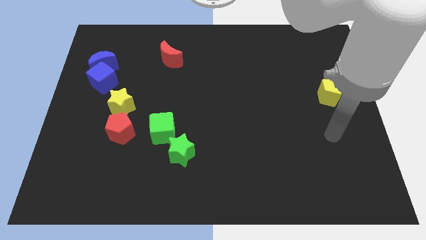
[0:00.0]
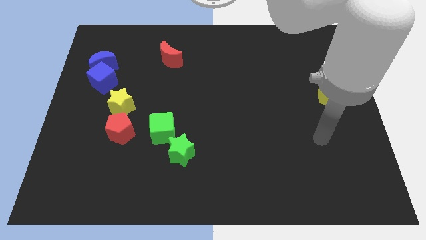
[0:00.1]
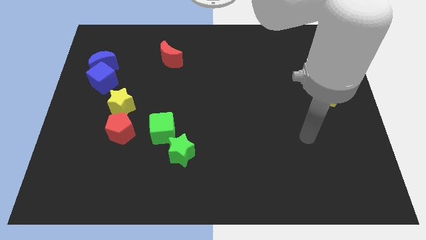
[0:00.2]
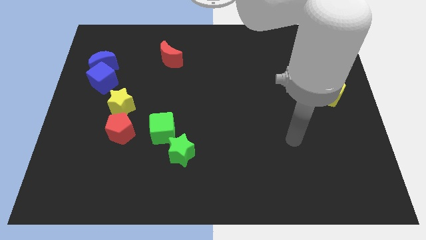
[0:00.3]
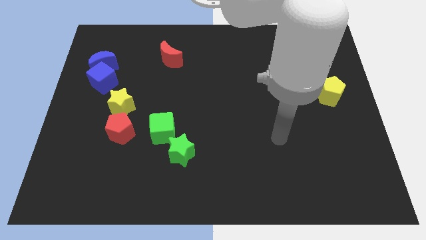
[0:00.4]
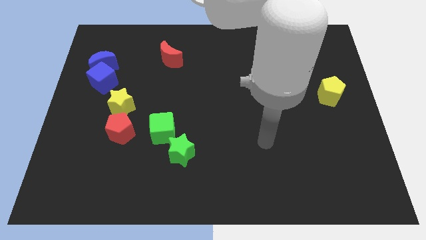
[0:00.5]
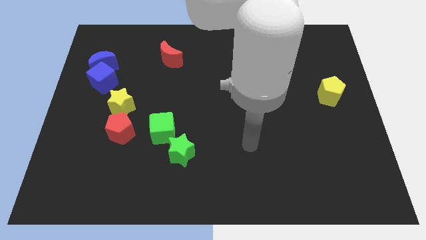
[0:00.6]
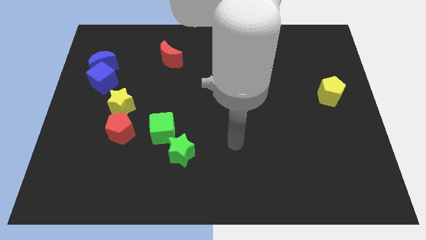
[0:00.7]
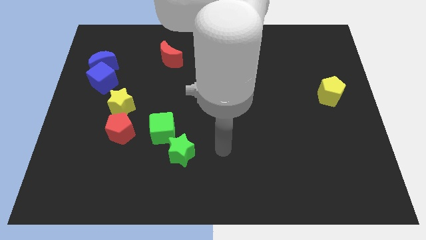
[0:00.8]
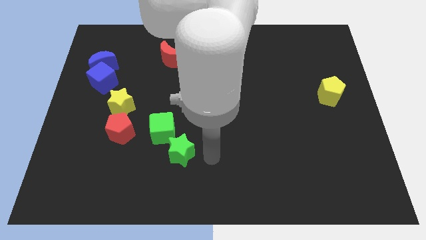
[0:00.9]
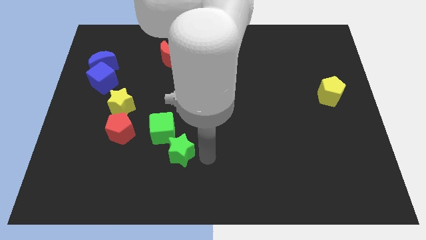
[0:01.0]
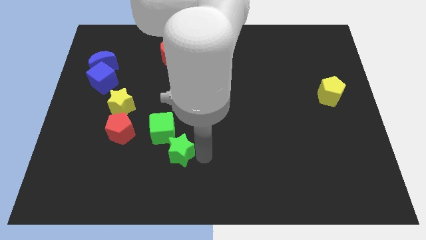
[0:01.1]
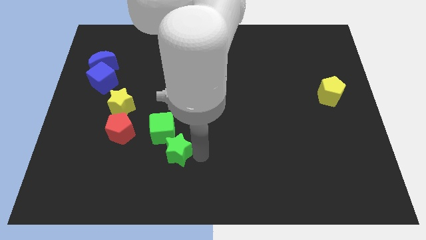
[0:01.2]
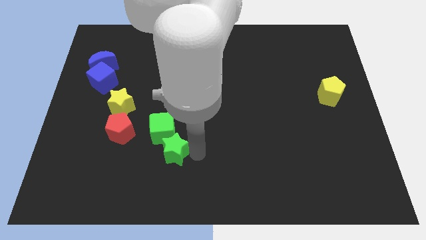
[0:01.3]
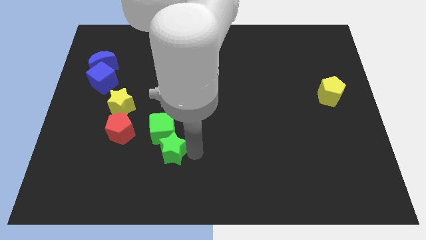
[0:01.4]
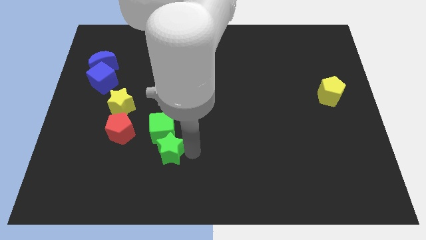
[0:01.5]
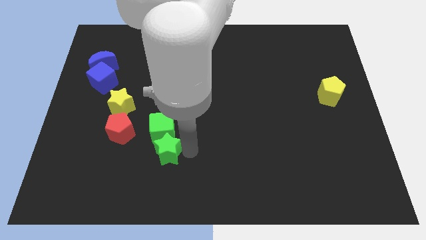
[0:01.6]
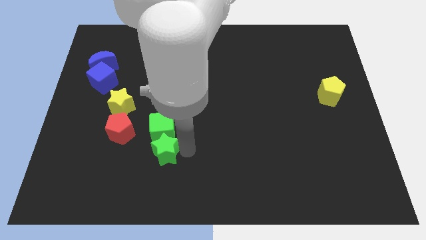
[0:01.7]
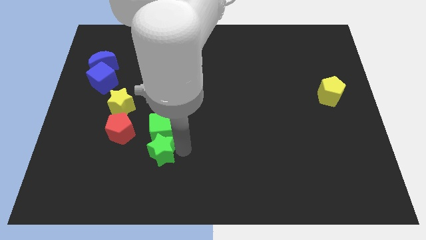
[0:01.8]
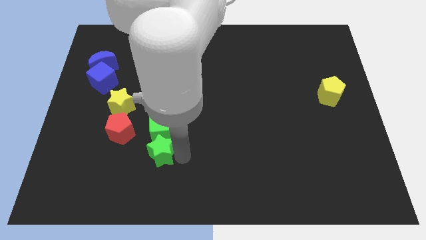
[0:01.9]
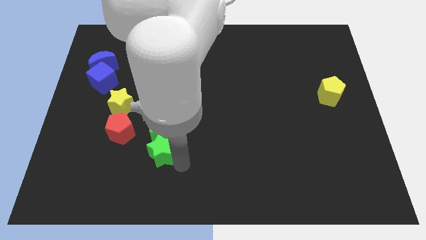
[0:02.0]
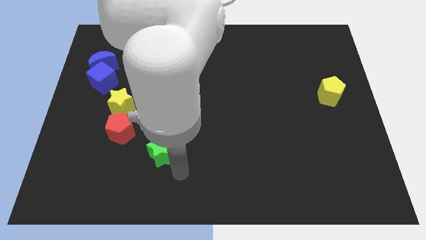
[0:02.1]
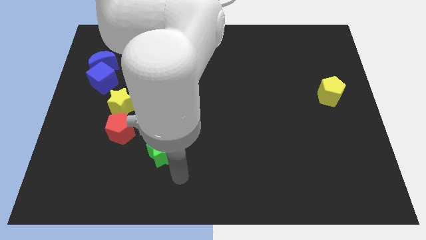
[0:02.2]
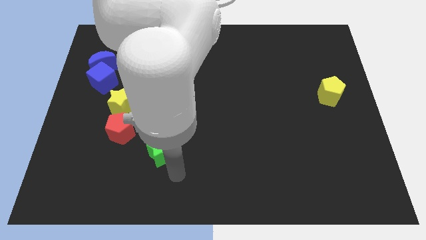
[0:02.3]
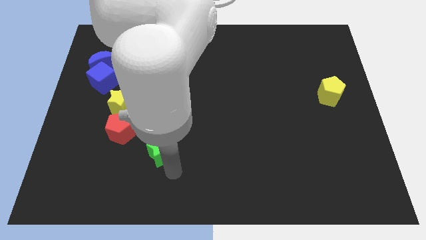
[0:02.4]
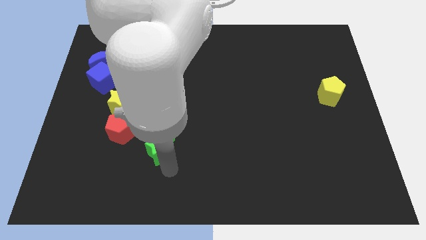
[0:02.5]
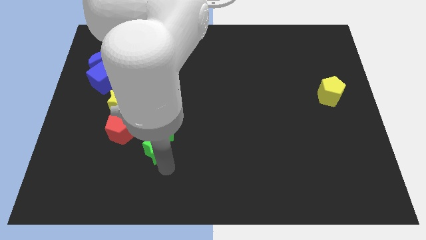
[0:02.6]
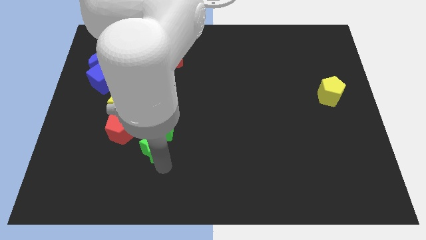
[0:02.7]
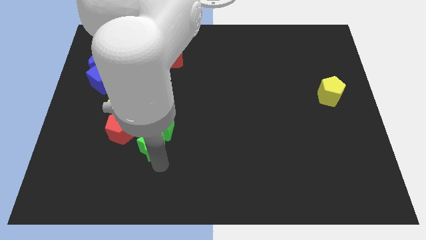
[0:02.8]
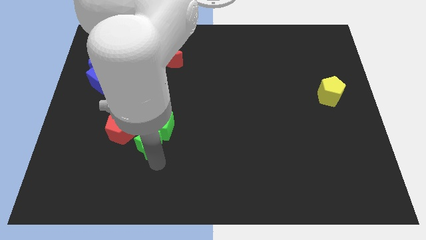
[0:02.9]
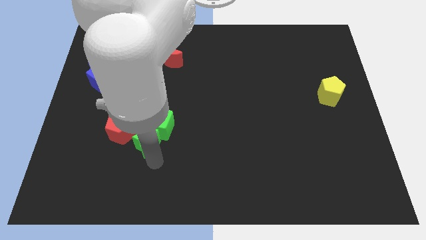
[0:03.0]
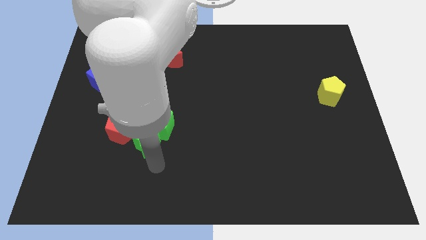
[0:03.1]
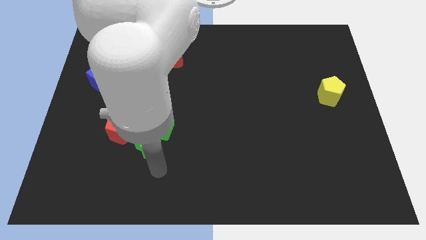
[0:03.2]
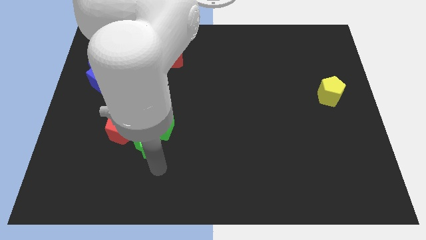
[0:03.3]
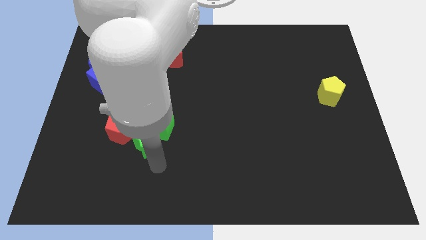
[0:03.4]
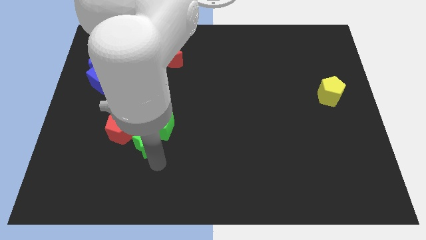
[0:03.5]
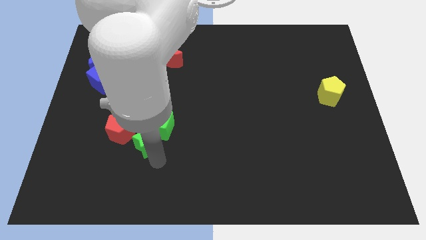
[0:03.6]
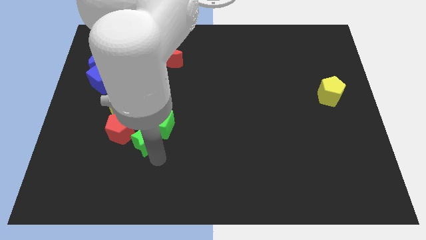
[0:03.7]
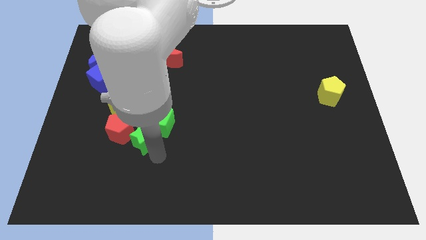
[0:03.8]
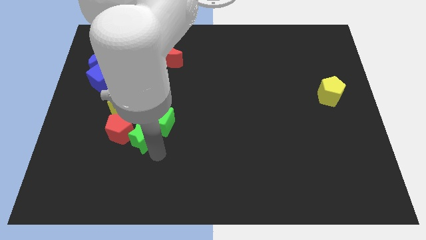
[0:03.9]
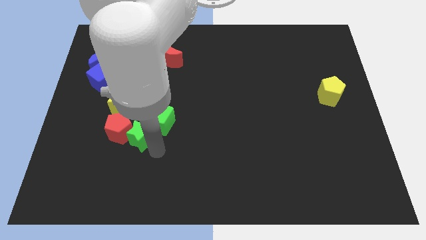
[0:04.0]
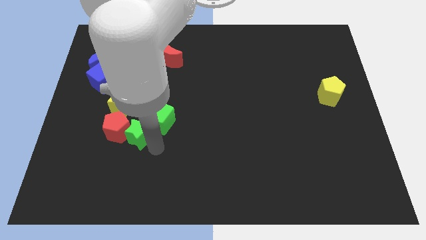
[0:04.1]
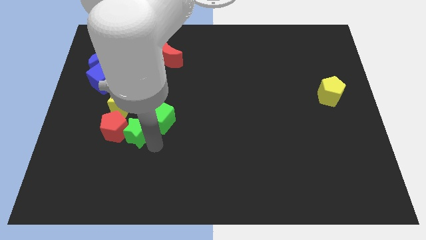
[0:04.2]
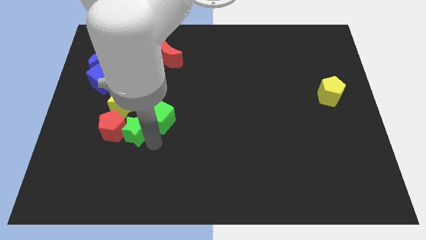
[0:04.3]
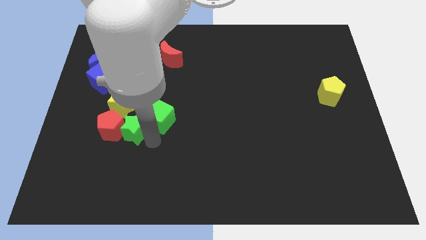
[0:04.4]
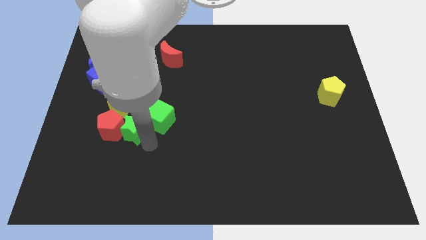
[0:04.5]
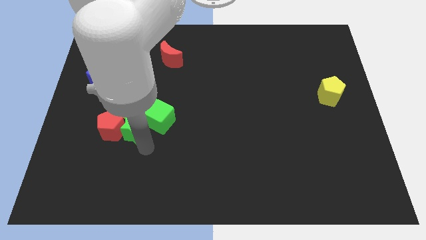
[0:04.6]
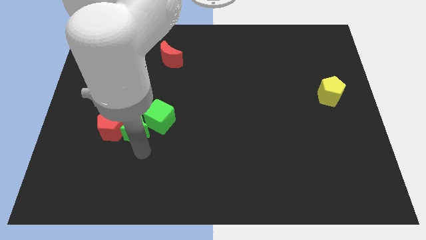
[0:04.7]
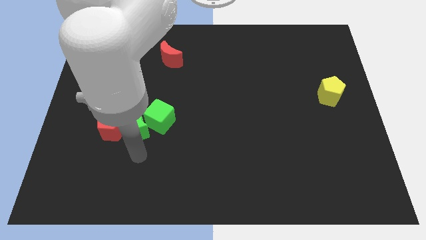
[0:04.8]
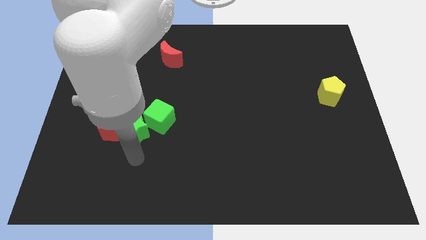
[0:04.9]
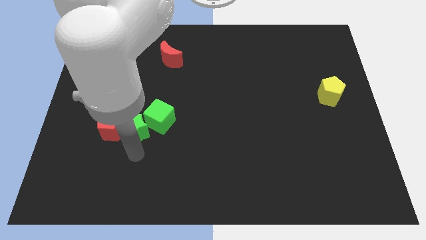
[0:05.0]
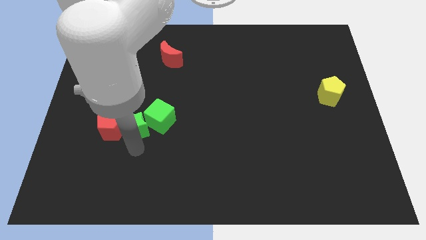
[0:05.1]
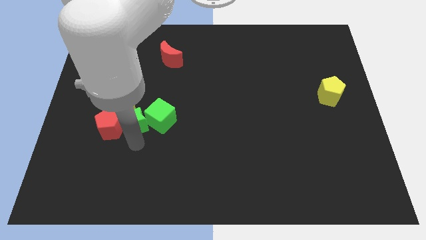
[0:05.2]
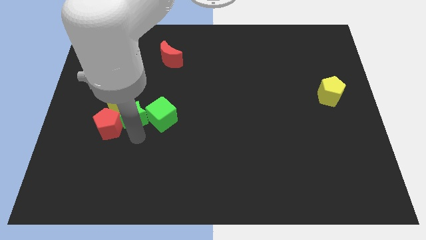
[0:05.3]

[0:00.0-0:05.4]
move the green star next to the yellow star

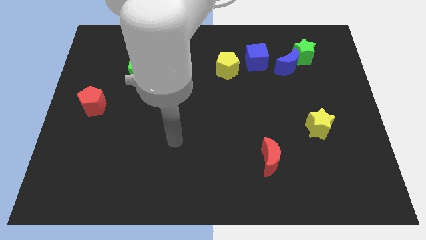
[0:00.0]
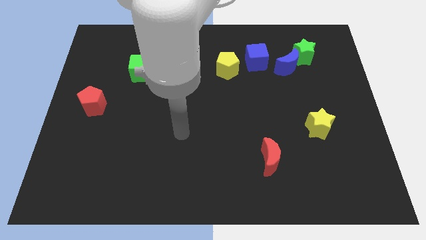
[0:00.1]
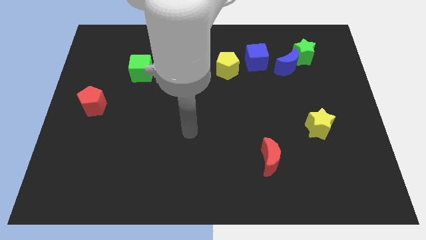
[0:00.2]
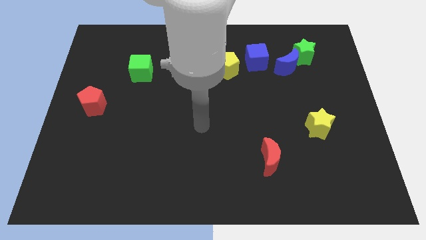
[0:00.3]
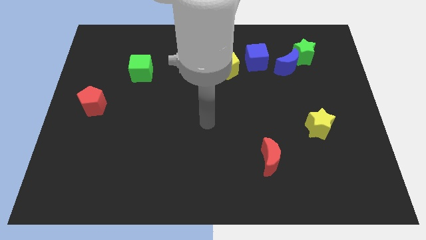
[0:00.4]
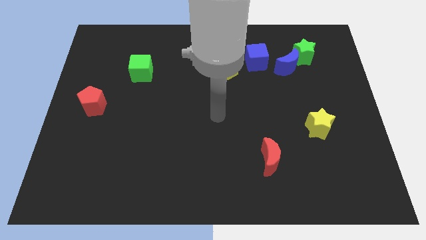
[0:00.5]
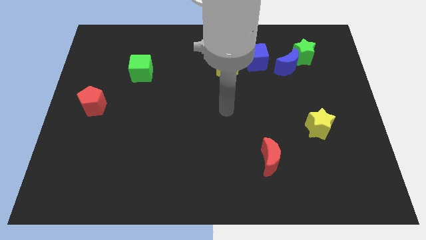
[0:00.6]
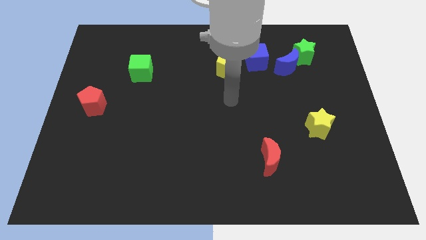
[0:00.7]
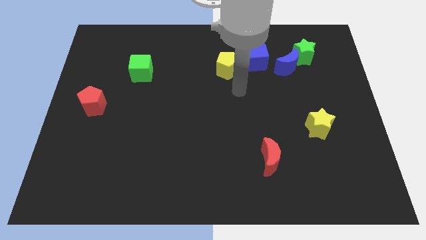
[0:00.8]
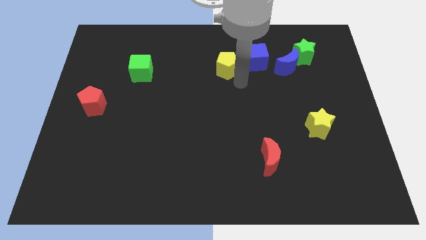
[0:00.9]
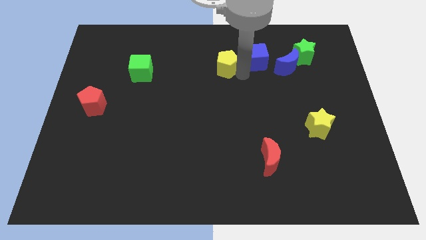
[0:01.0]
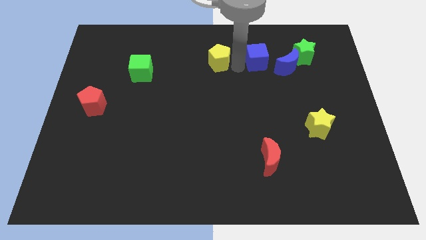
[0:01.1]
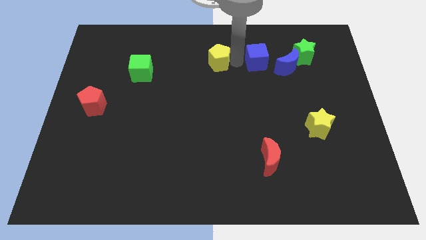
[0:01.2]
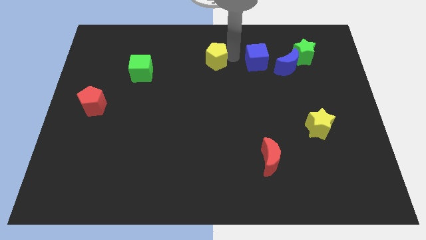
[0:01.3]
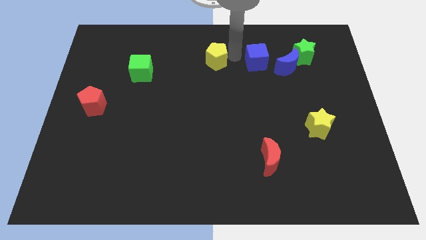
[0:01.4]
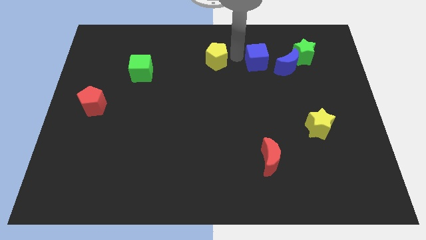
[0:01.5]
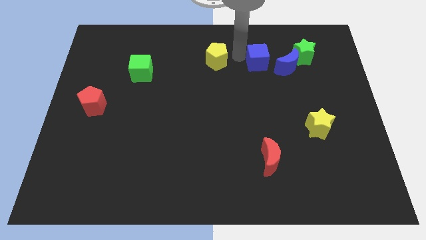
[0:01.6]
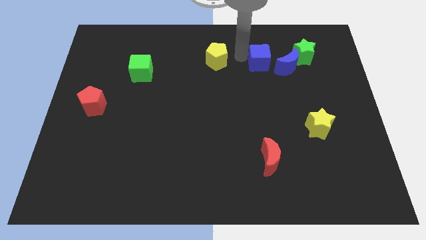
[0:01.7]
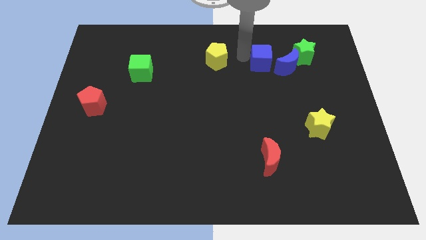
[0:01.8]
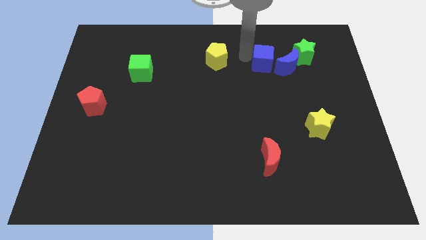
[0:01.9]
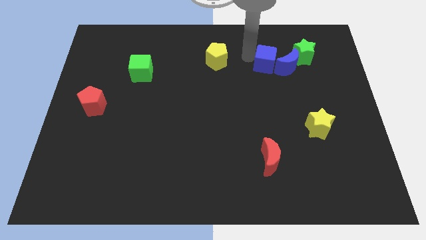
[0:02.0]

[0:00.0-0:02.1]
move the blue cube close to the blue moon
